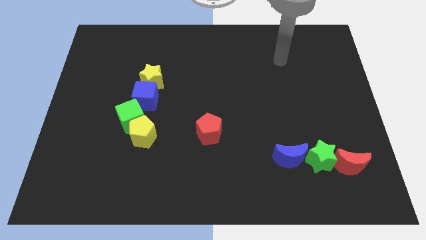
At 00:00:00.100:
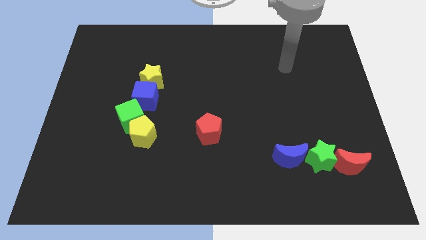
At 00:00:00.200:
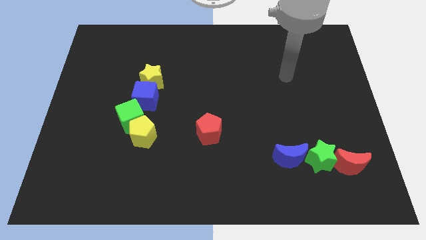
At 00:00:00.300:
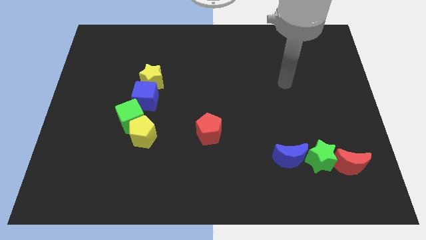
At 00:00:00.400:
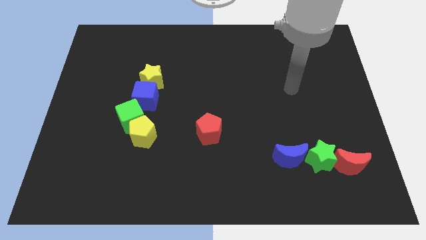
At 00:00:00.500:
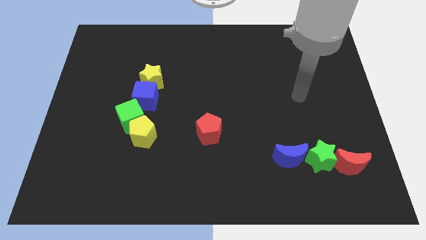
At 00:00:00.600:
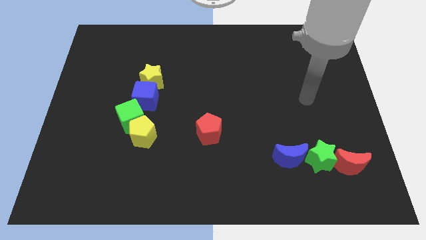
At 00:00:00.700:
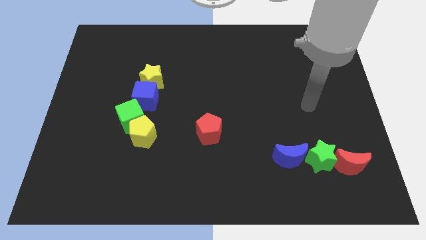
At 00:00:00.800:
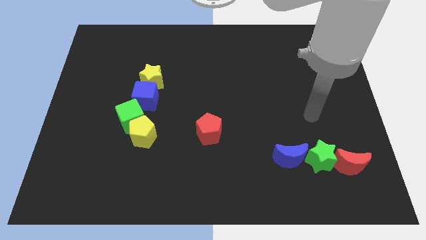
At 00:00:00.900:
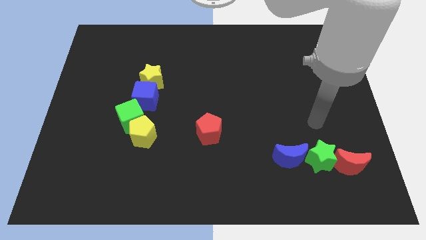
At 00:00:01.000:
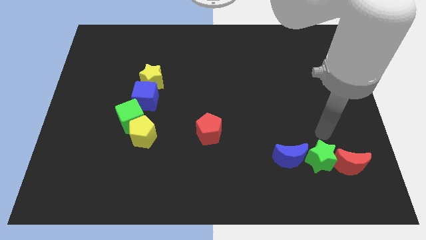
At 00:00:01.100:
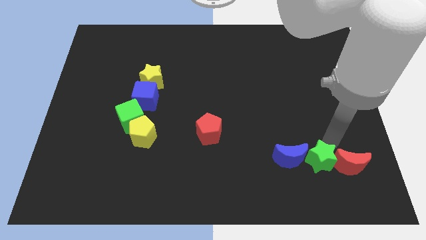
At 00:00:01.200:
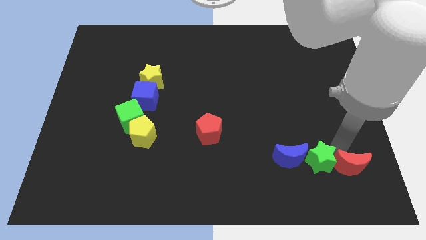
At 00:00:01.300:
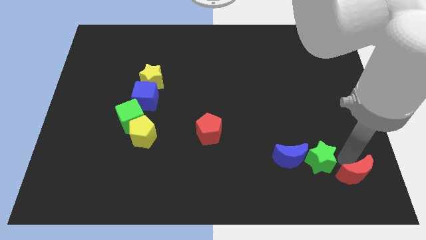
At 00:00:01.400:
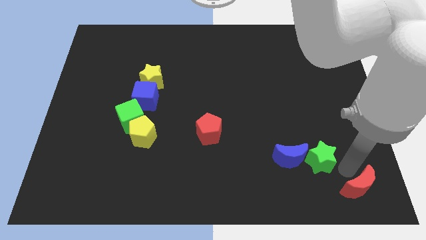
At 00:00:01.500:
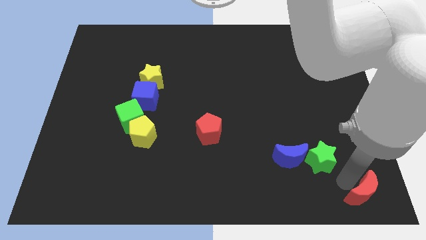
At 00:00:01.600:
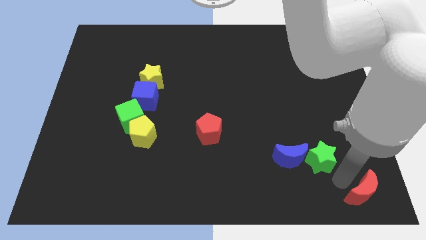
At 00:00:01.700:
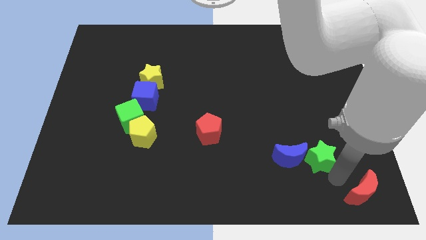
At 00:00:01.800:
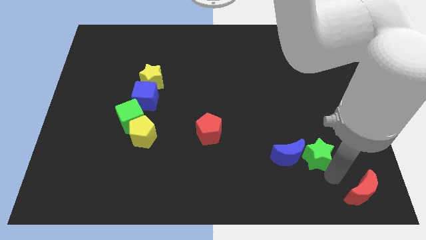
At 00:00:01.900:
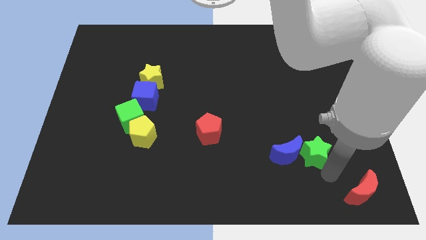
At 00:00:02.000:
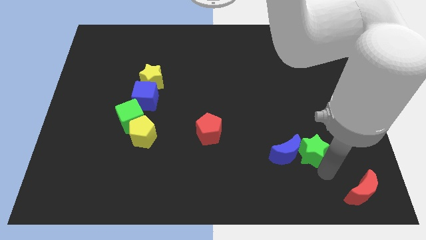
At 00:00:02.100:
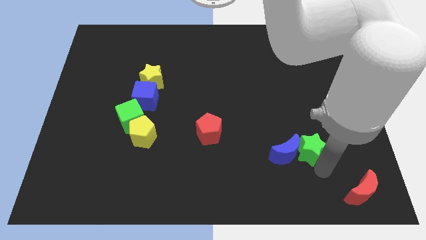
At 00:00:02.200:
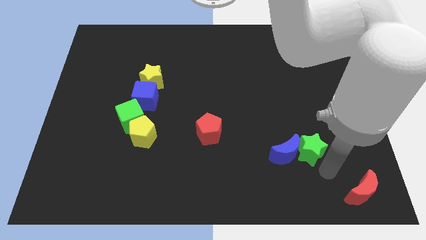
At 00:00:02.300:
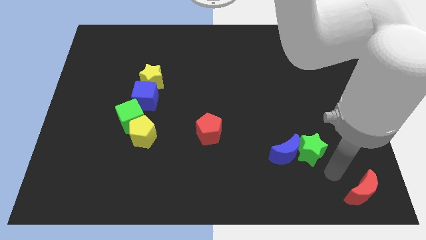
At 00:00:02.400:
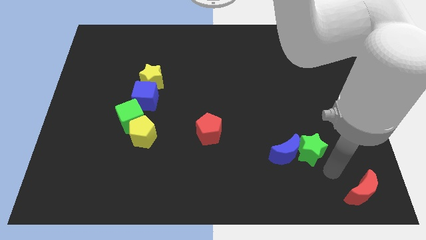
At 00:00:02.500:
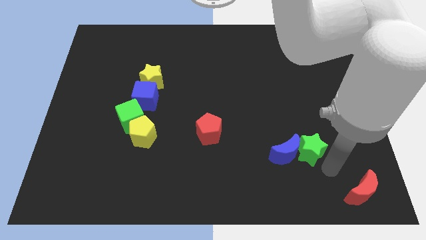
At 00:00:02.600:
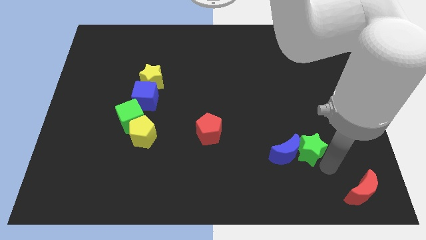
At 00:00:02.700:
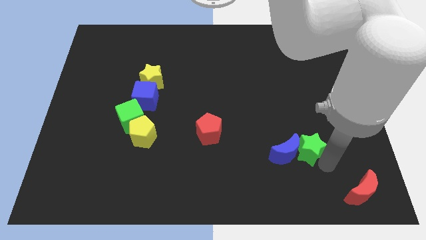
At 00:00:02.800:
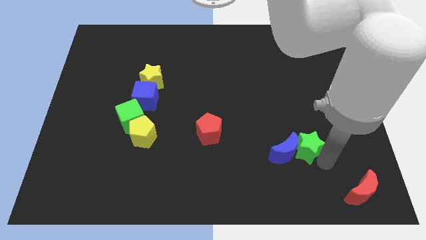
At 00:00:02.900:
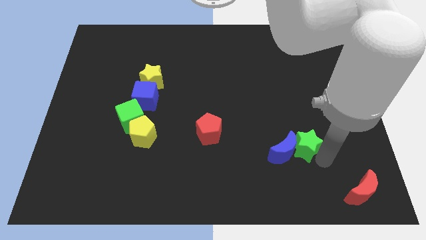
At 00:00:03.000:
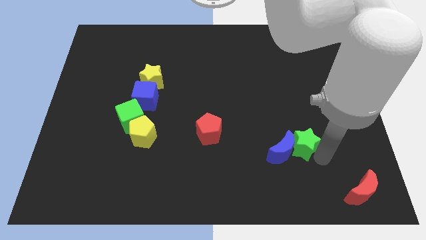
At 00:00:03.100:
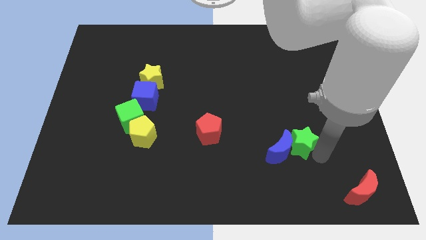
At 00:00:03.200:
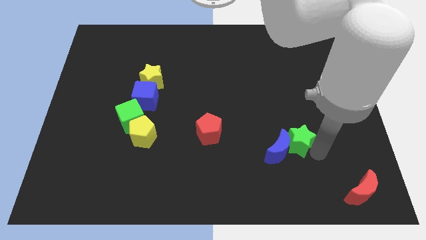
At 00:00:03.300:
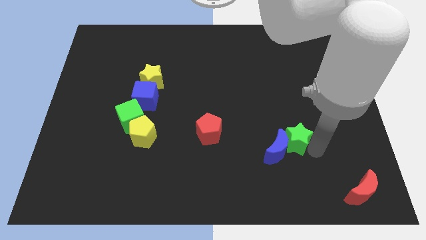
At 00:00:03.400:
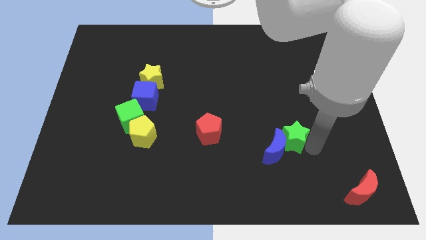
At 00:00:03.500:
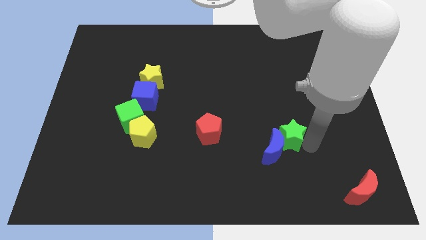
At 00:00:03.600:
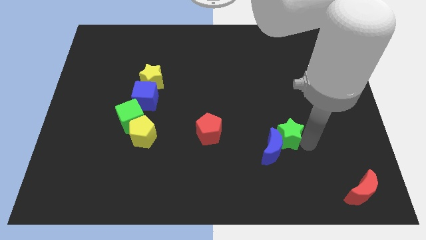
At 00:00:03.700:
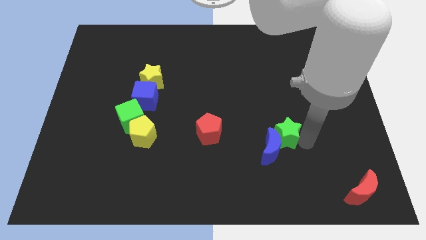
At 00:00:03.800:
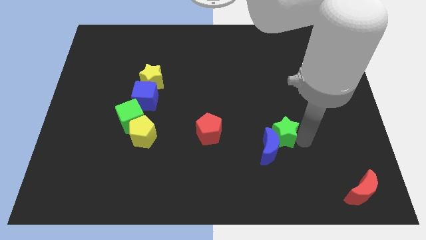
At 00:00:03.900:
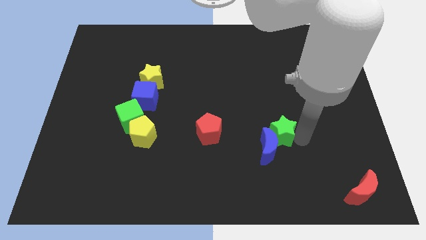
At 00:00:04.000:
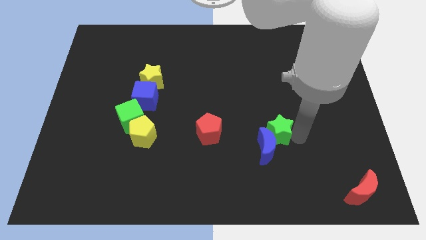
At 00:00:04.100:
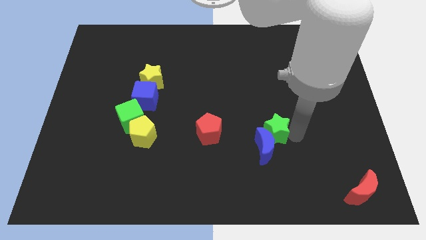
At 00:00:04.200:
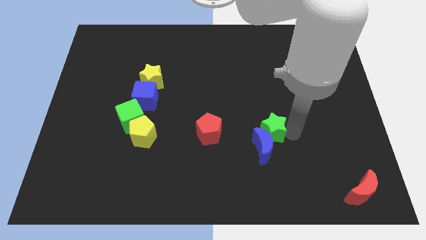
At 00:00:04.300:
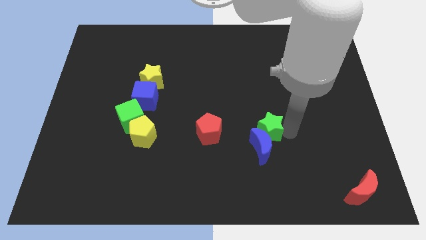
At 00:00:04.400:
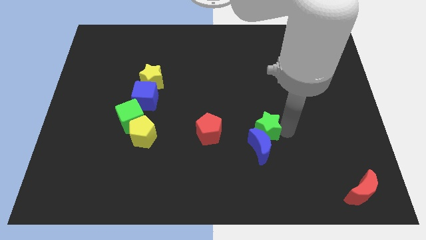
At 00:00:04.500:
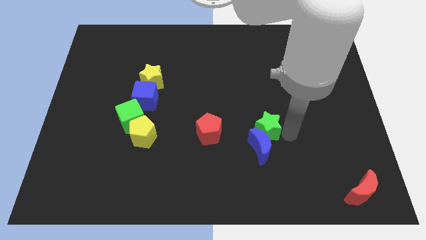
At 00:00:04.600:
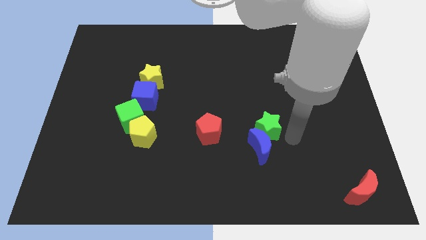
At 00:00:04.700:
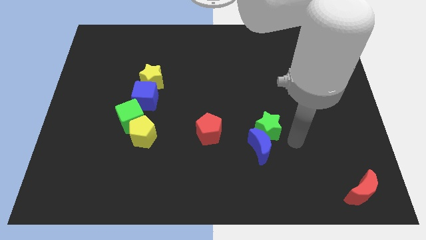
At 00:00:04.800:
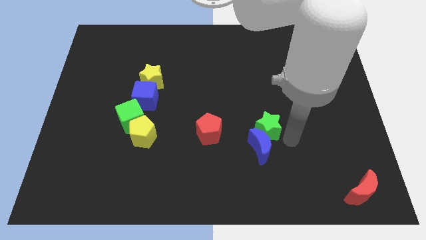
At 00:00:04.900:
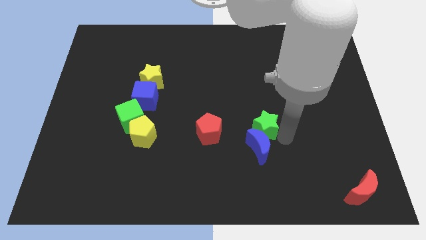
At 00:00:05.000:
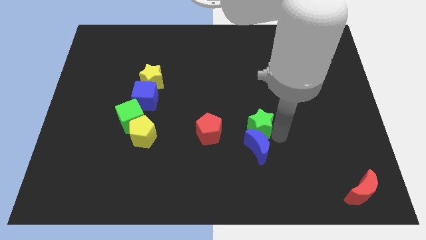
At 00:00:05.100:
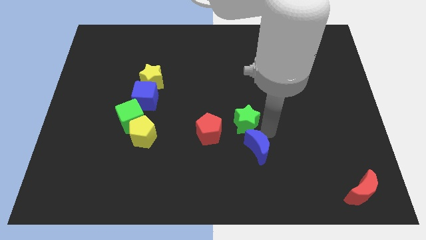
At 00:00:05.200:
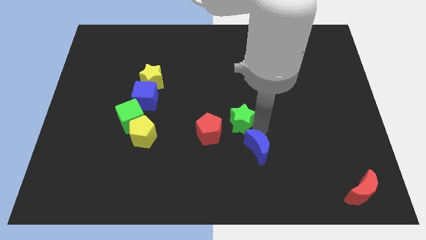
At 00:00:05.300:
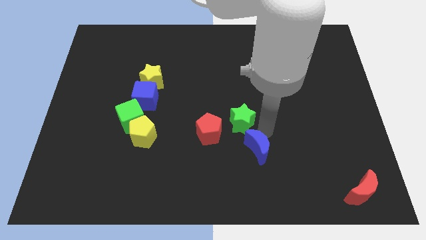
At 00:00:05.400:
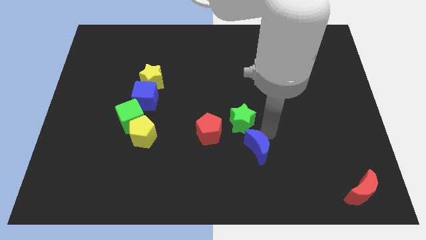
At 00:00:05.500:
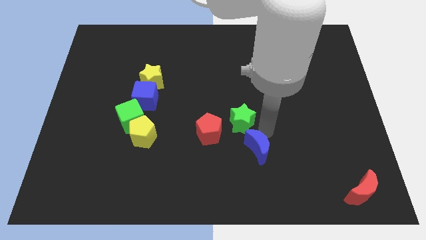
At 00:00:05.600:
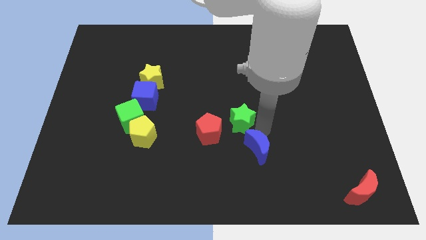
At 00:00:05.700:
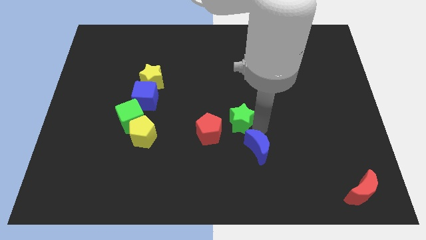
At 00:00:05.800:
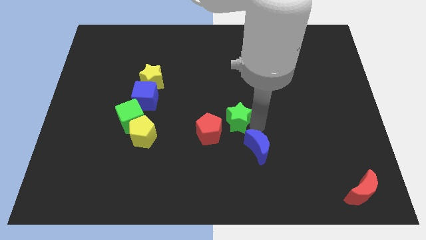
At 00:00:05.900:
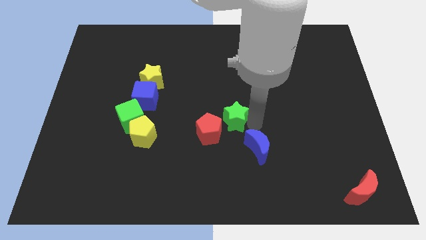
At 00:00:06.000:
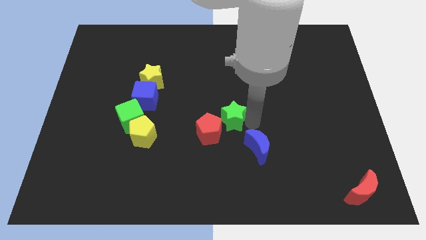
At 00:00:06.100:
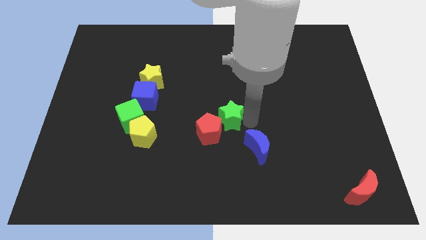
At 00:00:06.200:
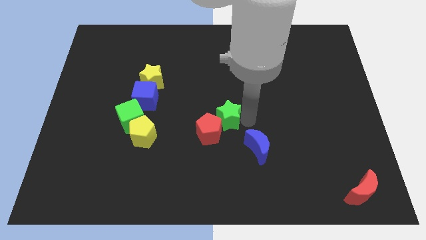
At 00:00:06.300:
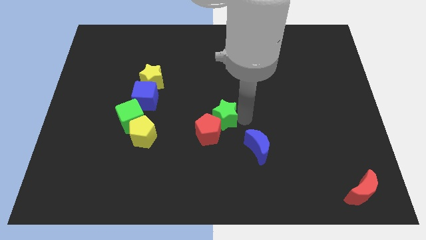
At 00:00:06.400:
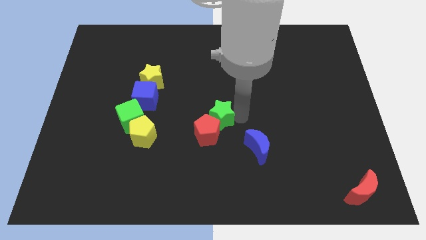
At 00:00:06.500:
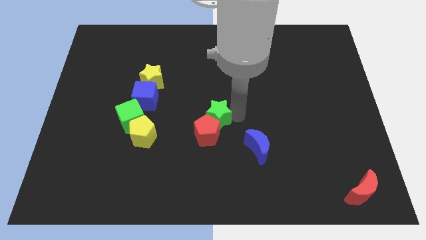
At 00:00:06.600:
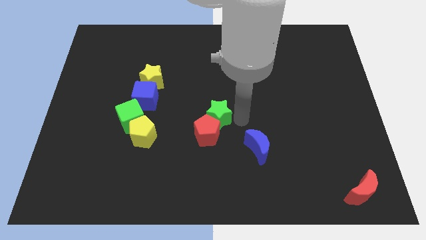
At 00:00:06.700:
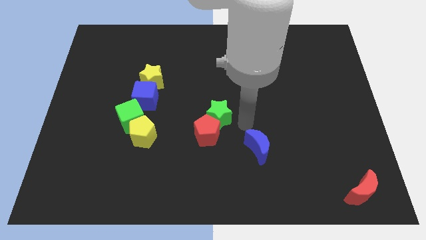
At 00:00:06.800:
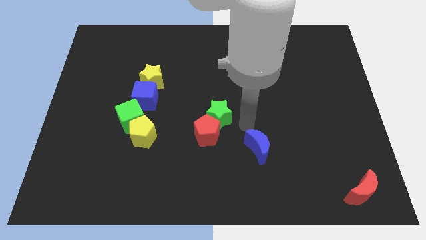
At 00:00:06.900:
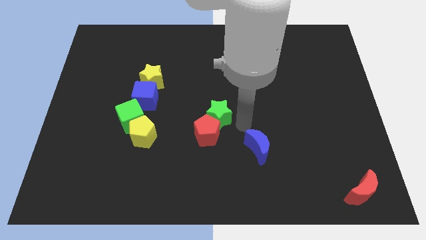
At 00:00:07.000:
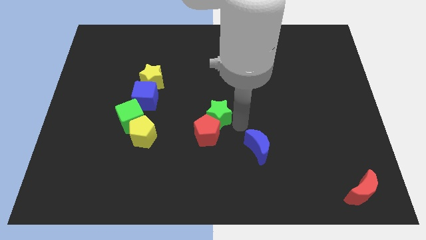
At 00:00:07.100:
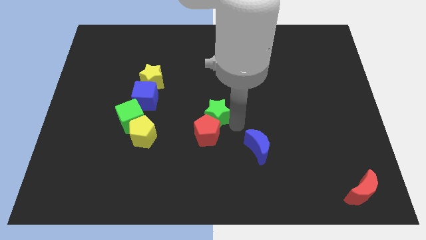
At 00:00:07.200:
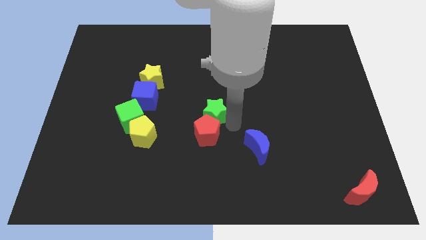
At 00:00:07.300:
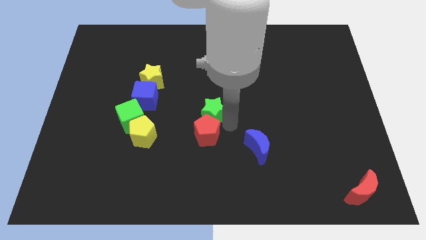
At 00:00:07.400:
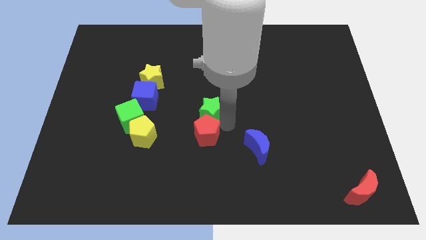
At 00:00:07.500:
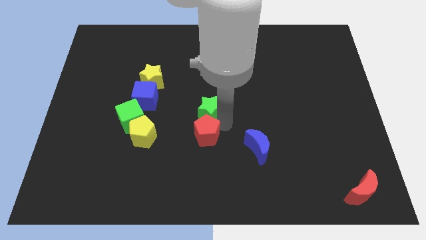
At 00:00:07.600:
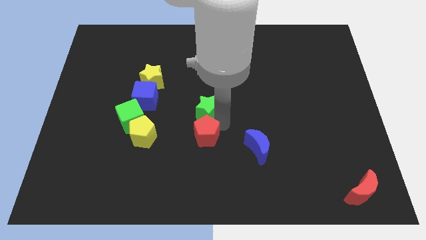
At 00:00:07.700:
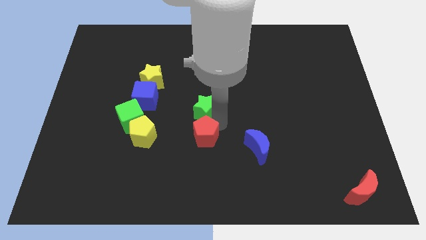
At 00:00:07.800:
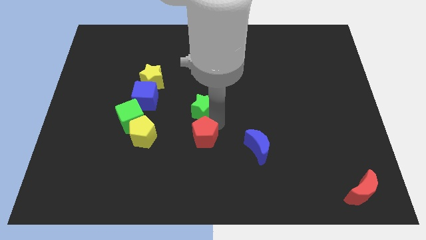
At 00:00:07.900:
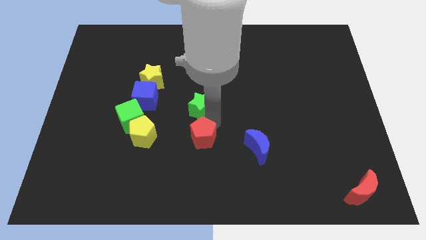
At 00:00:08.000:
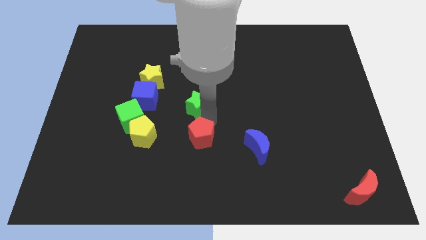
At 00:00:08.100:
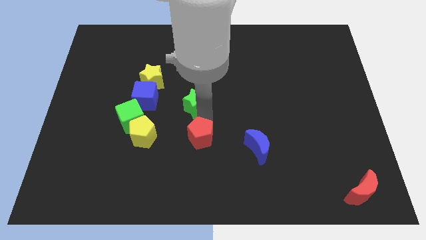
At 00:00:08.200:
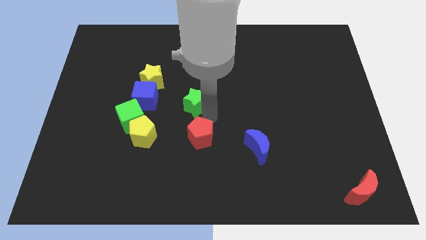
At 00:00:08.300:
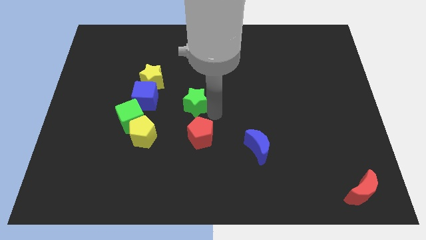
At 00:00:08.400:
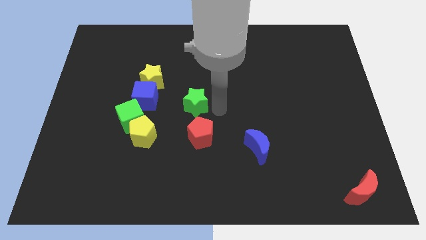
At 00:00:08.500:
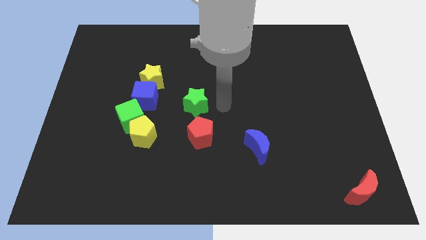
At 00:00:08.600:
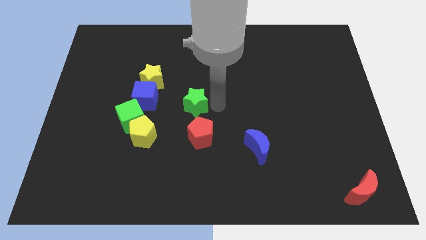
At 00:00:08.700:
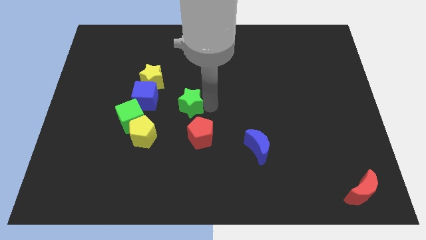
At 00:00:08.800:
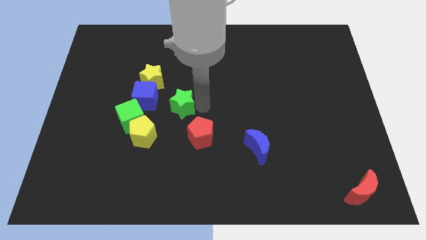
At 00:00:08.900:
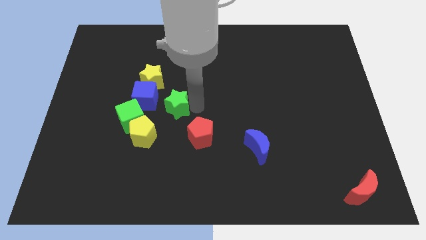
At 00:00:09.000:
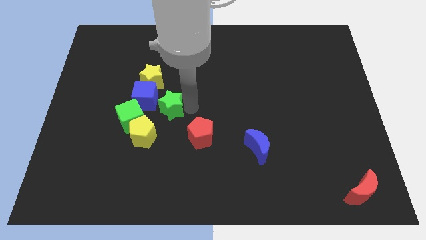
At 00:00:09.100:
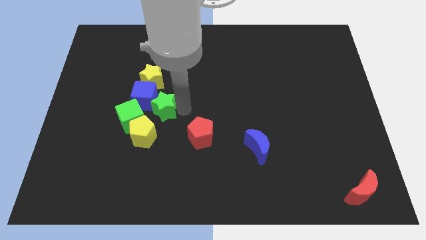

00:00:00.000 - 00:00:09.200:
put the green star towards the blue cube
